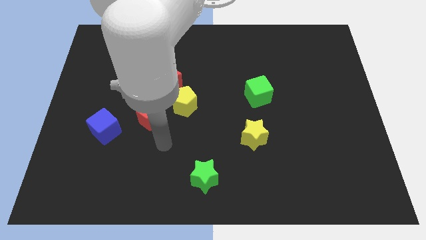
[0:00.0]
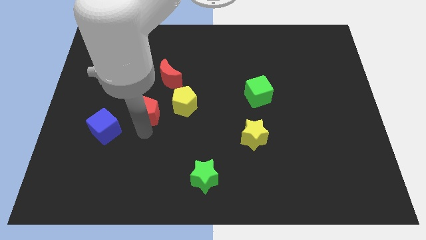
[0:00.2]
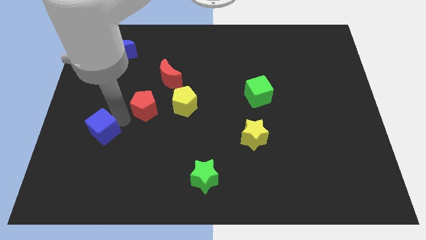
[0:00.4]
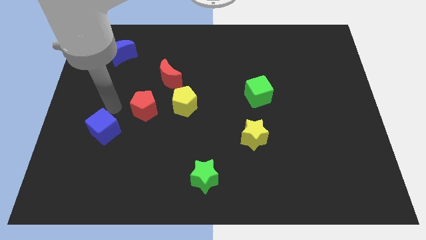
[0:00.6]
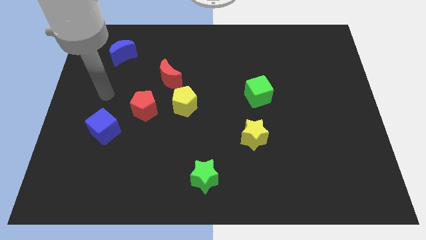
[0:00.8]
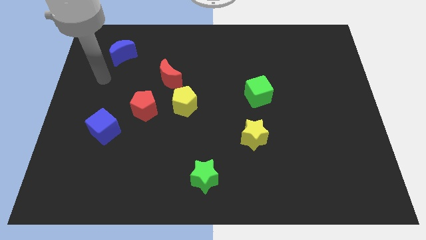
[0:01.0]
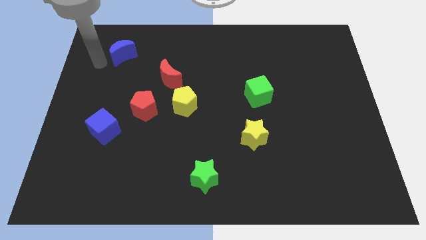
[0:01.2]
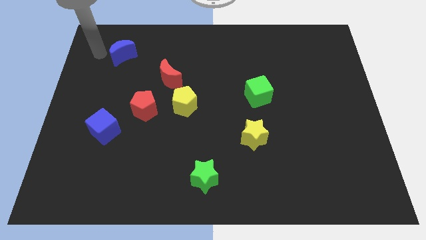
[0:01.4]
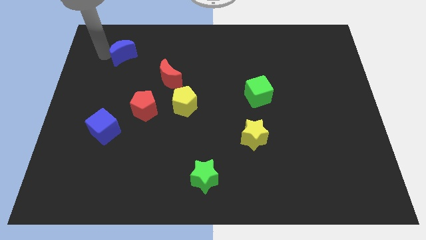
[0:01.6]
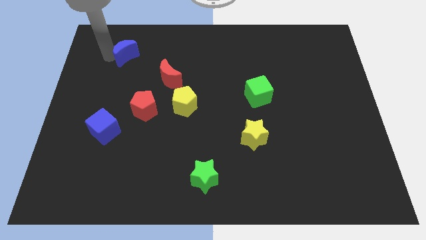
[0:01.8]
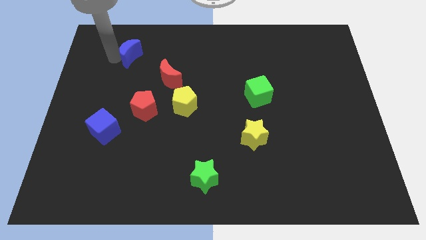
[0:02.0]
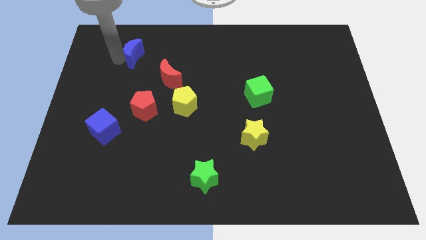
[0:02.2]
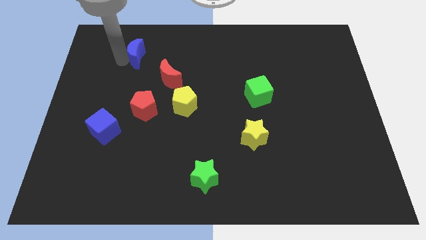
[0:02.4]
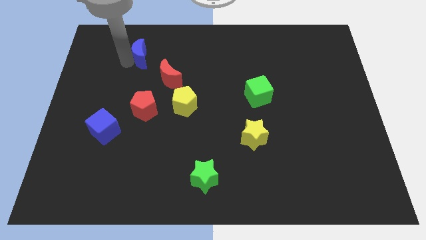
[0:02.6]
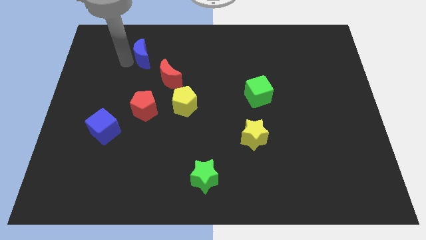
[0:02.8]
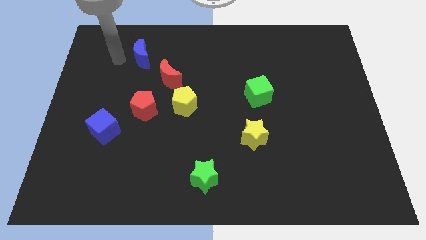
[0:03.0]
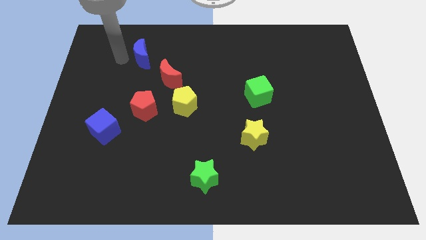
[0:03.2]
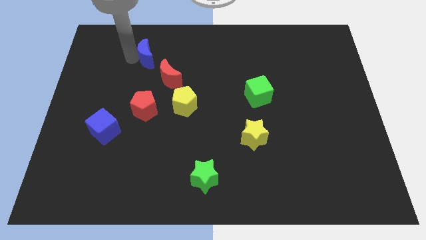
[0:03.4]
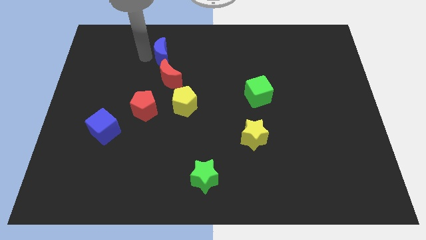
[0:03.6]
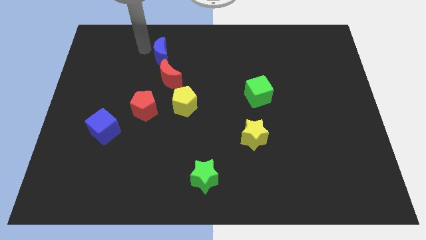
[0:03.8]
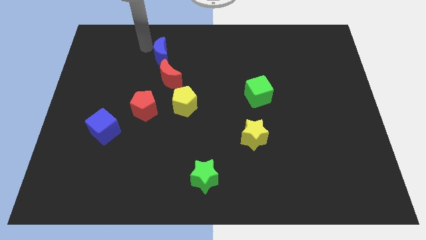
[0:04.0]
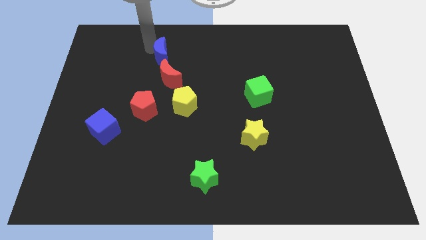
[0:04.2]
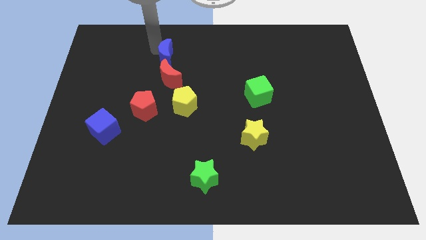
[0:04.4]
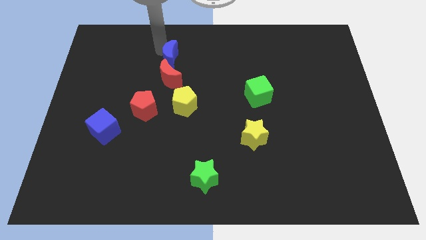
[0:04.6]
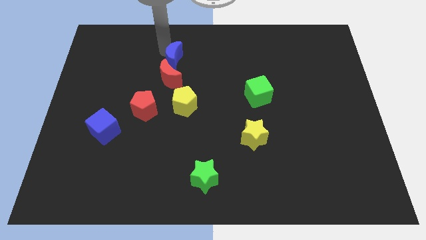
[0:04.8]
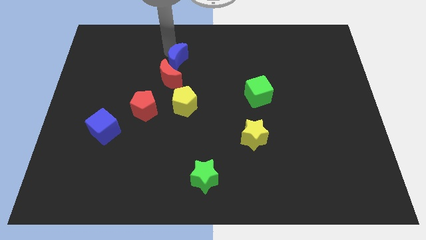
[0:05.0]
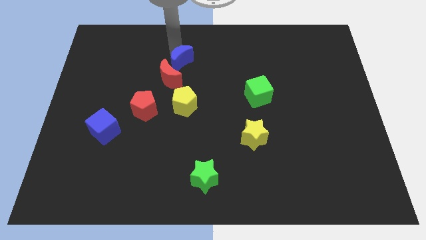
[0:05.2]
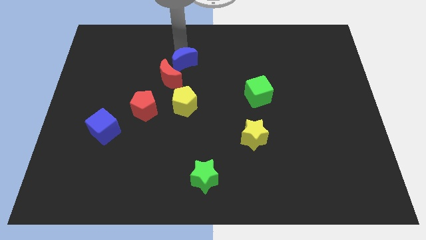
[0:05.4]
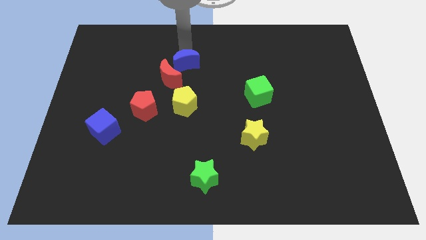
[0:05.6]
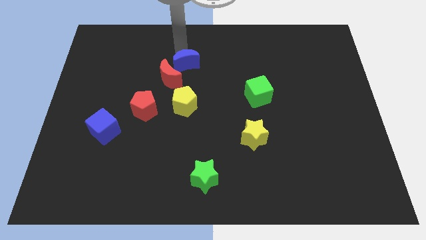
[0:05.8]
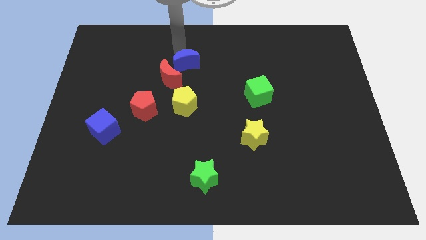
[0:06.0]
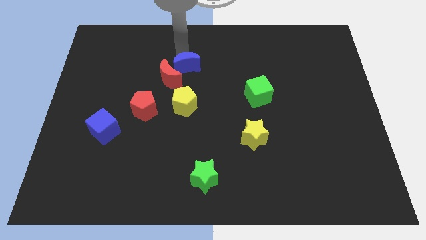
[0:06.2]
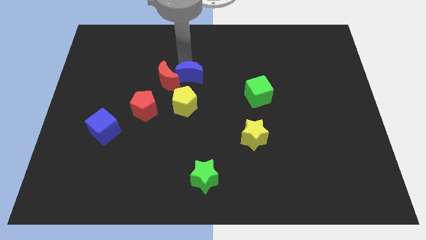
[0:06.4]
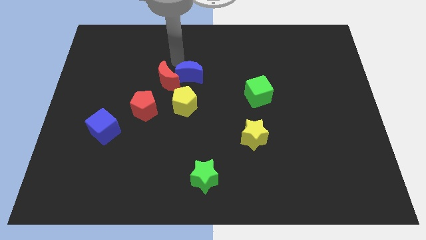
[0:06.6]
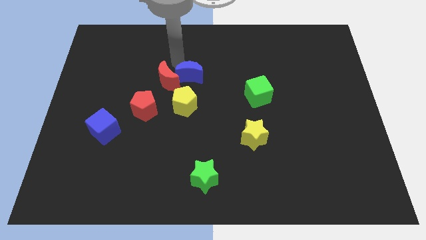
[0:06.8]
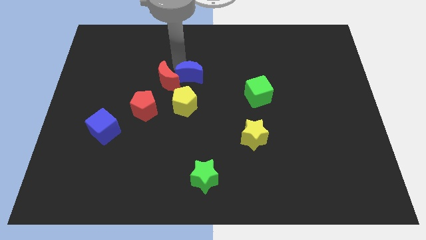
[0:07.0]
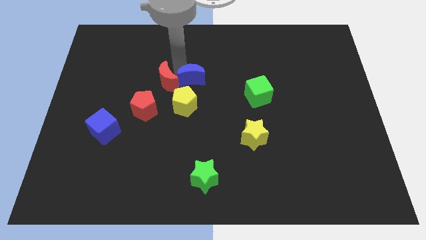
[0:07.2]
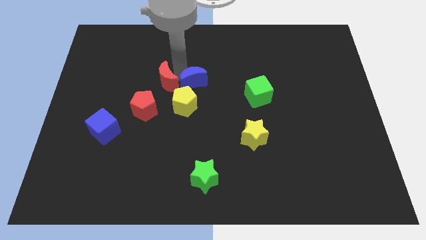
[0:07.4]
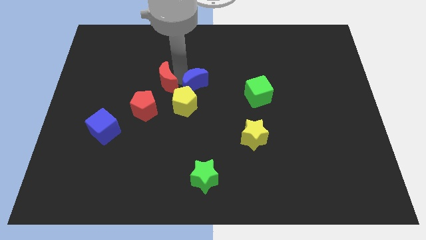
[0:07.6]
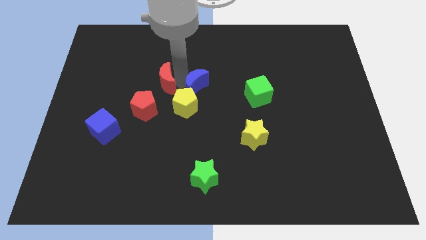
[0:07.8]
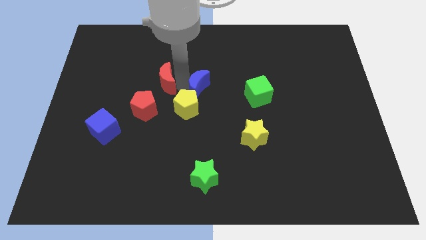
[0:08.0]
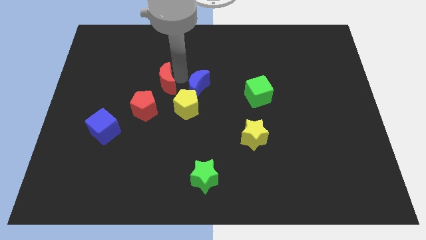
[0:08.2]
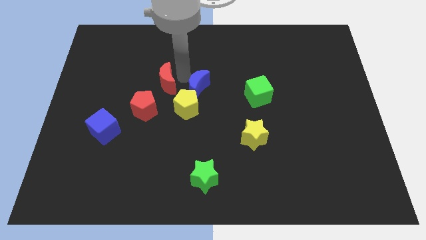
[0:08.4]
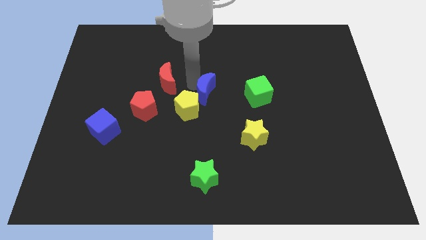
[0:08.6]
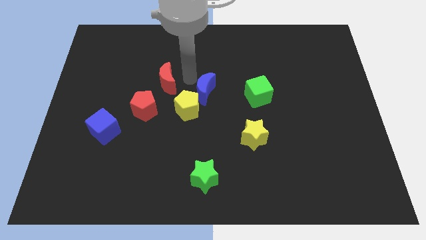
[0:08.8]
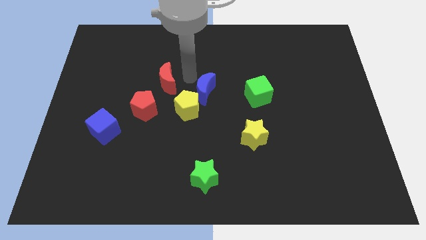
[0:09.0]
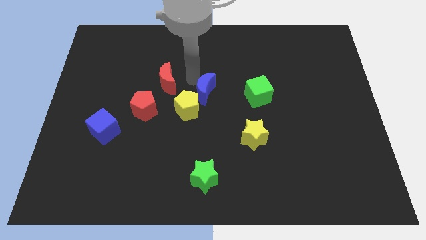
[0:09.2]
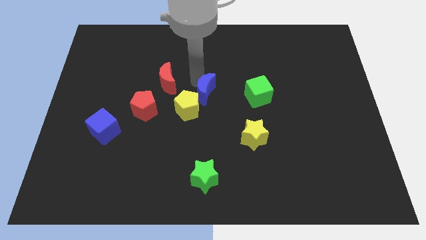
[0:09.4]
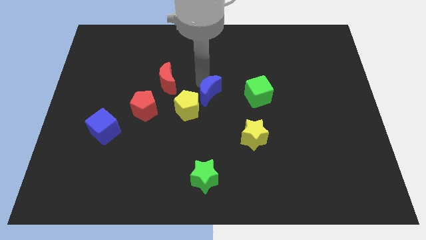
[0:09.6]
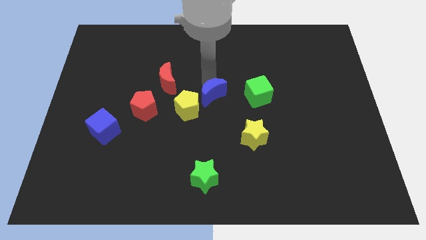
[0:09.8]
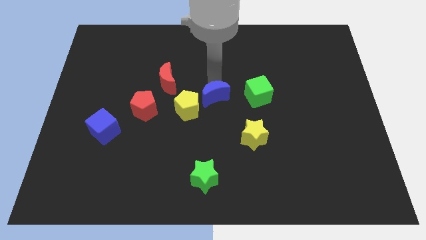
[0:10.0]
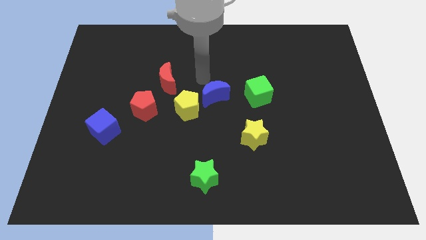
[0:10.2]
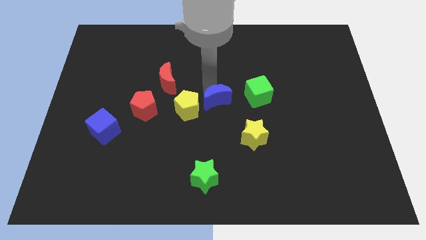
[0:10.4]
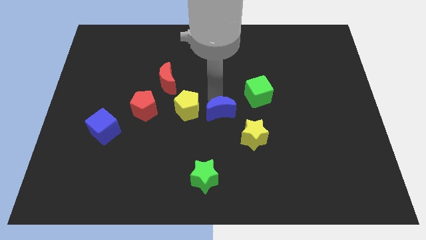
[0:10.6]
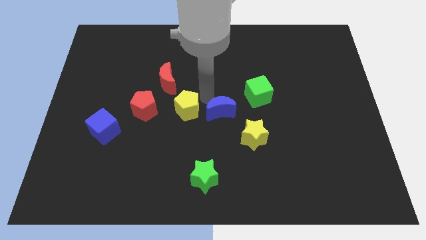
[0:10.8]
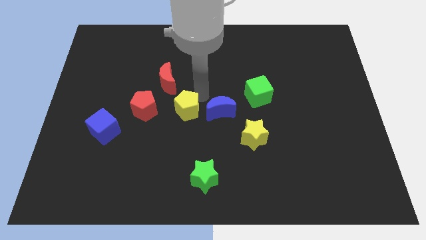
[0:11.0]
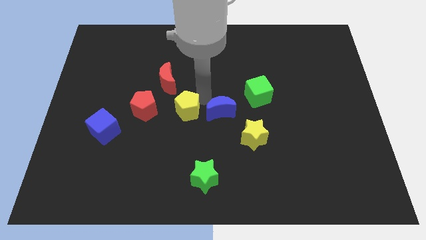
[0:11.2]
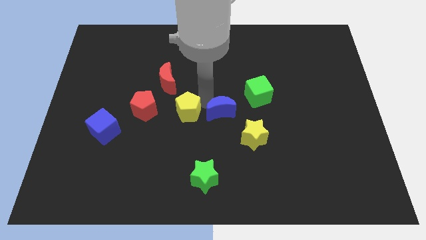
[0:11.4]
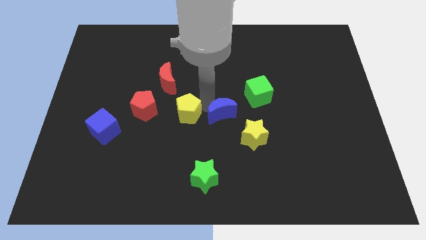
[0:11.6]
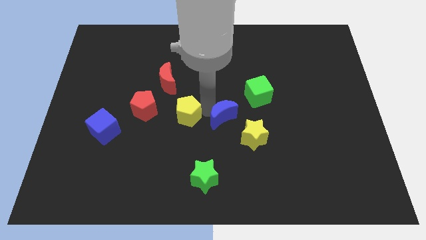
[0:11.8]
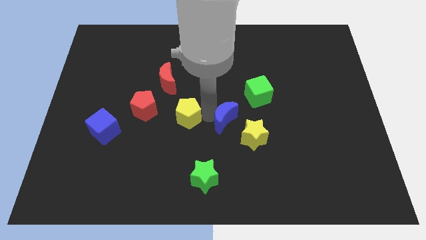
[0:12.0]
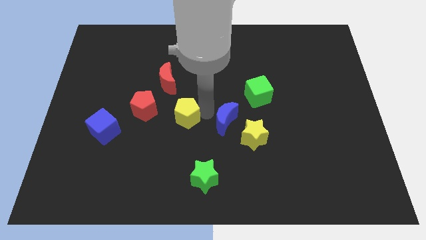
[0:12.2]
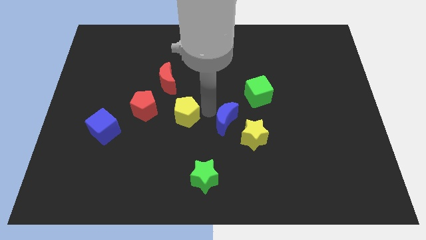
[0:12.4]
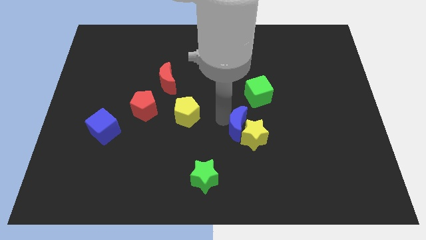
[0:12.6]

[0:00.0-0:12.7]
push the blue moon towards the yellow star
